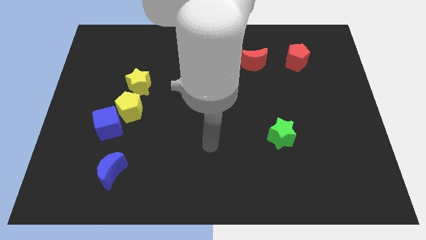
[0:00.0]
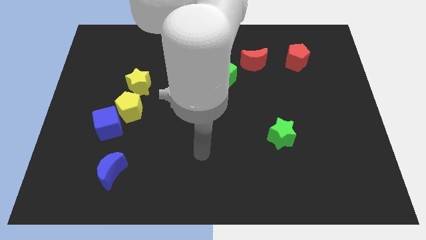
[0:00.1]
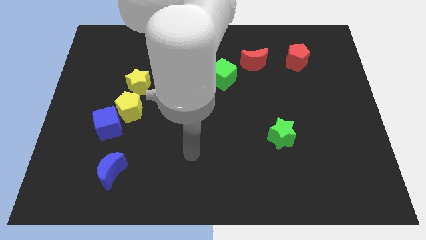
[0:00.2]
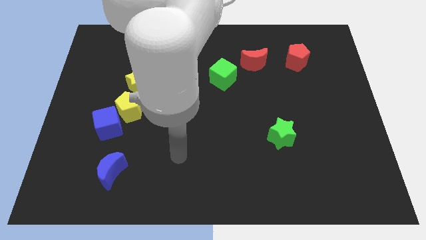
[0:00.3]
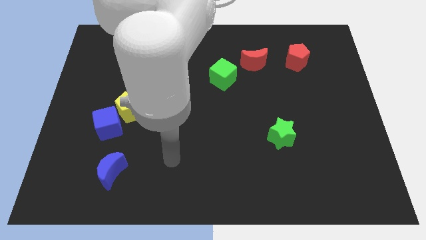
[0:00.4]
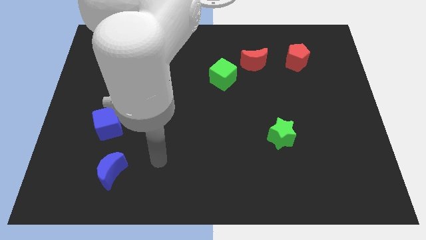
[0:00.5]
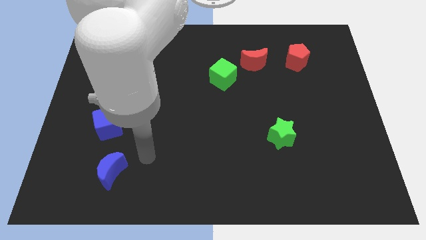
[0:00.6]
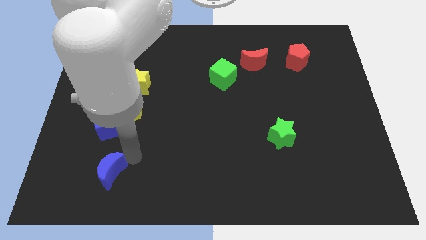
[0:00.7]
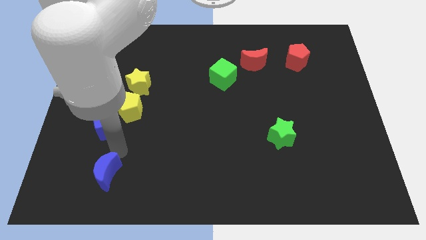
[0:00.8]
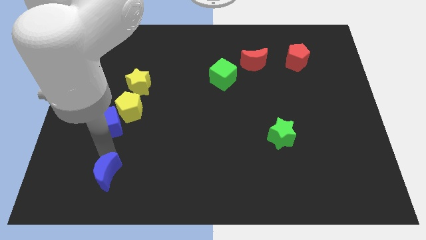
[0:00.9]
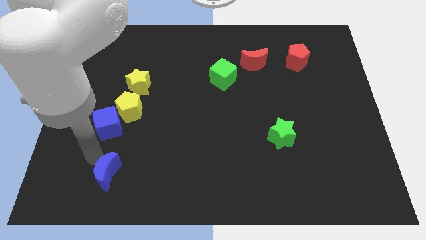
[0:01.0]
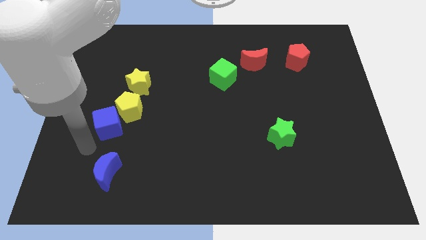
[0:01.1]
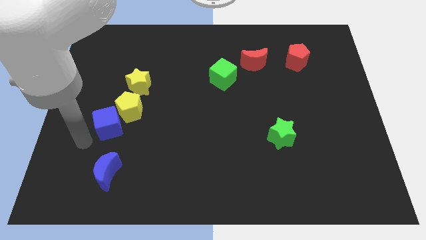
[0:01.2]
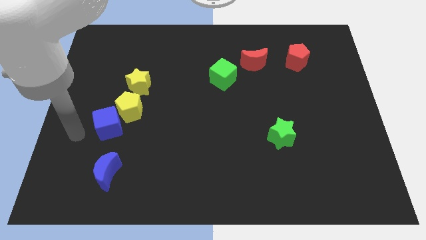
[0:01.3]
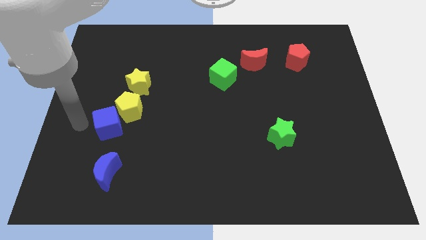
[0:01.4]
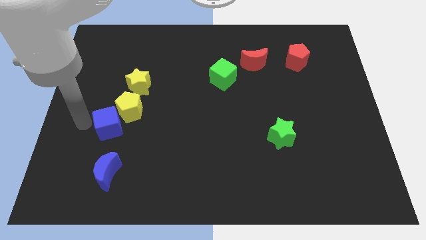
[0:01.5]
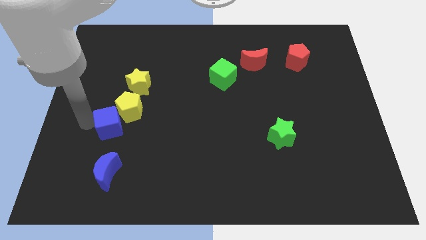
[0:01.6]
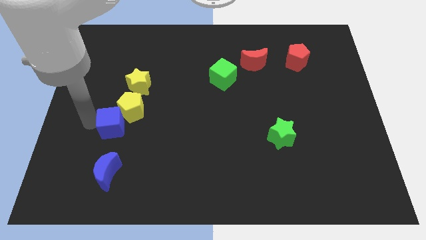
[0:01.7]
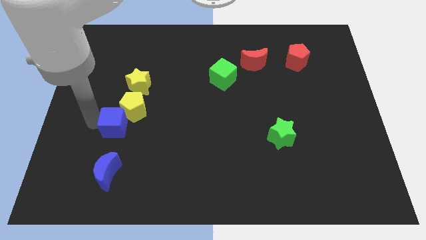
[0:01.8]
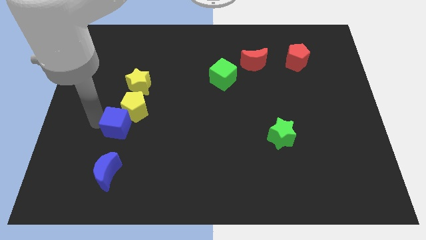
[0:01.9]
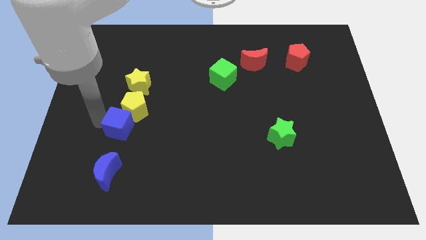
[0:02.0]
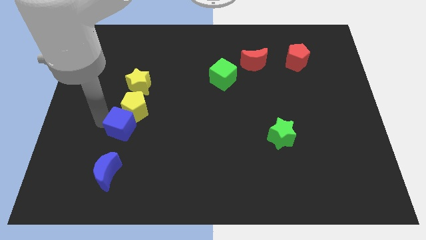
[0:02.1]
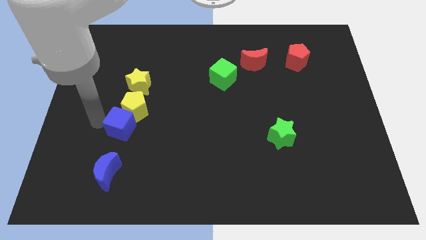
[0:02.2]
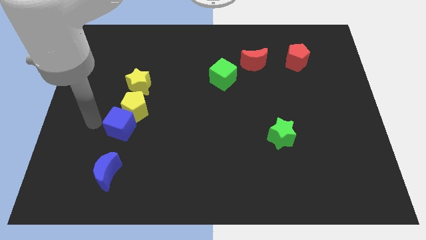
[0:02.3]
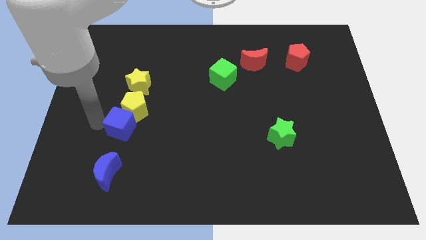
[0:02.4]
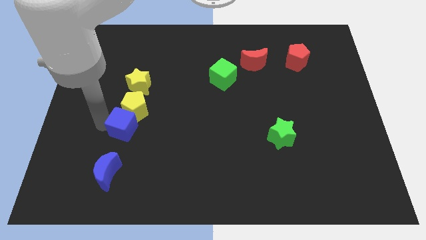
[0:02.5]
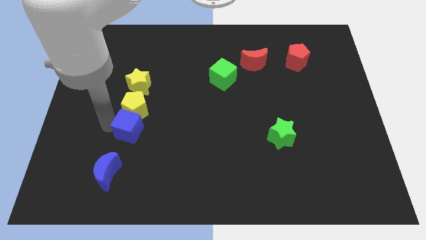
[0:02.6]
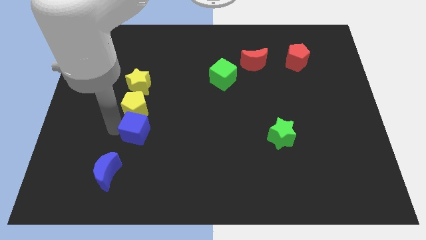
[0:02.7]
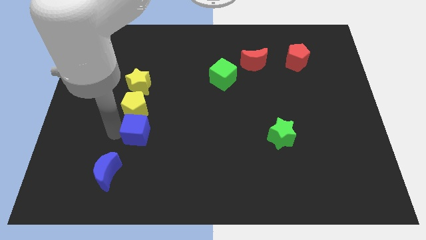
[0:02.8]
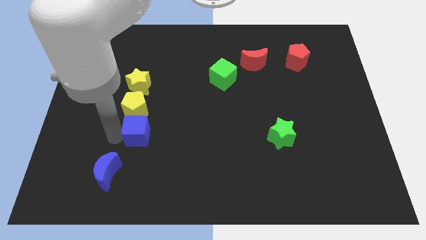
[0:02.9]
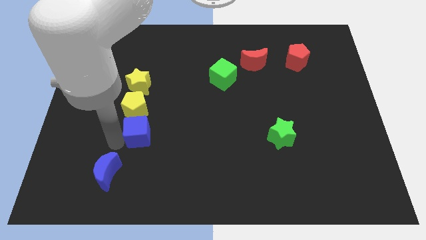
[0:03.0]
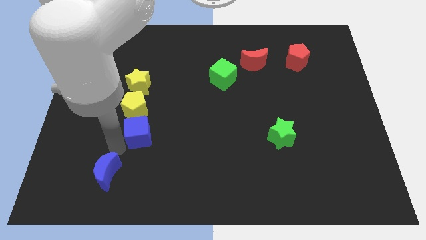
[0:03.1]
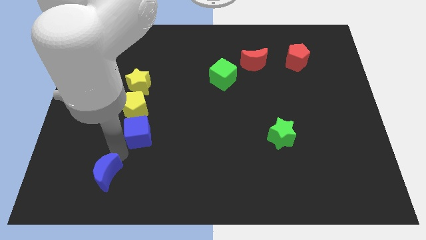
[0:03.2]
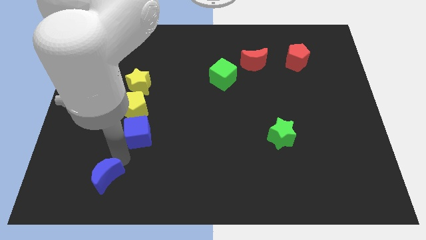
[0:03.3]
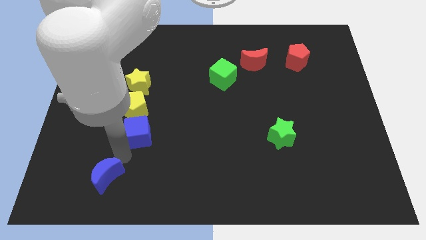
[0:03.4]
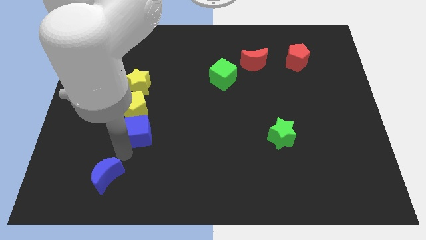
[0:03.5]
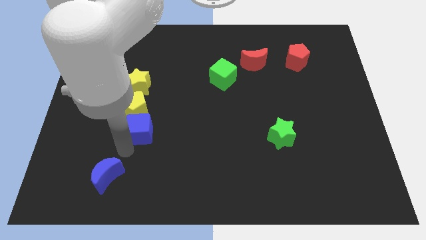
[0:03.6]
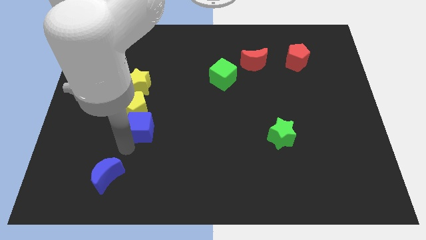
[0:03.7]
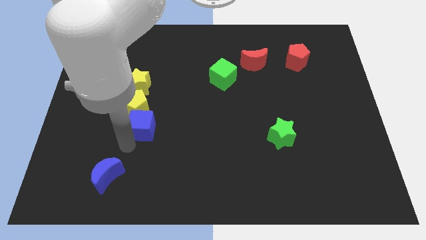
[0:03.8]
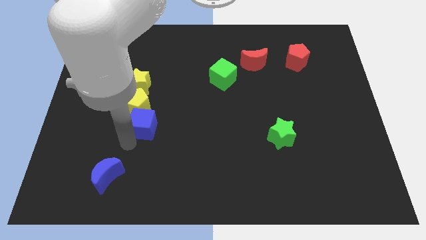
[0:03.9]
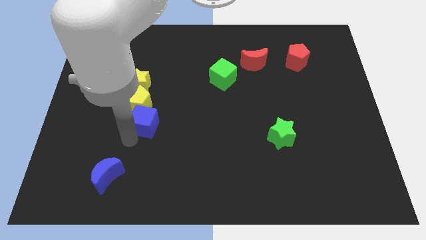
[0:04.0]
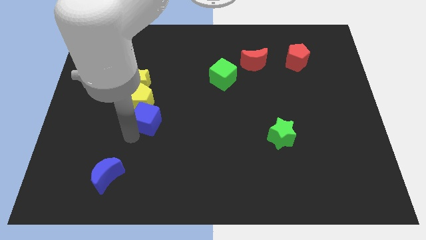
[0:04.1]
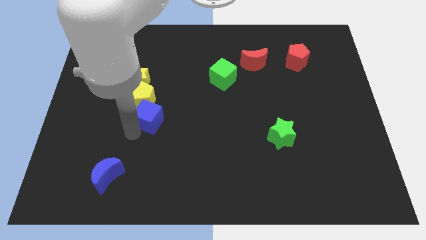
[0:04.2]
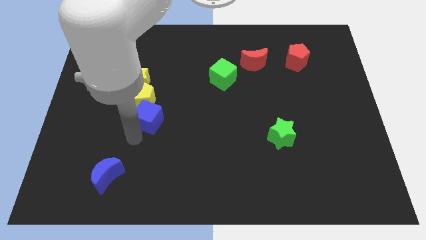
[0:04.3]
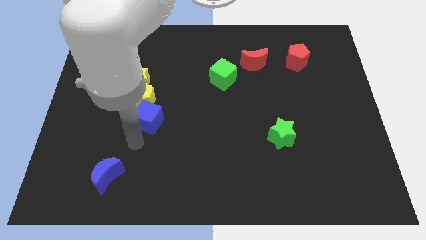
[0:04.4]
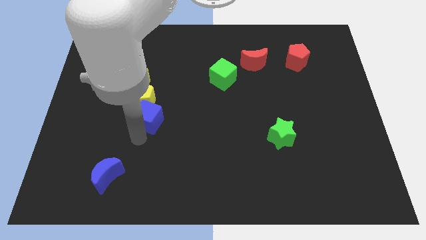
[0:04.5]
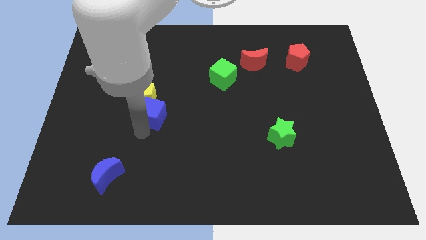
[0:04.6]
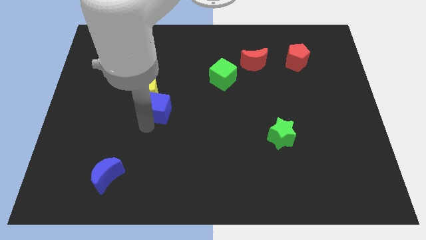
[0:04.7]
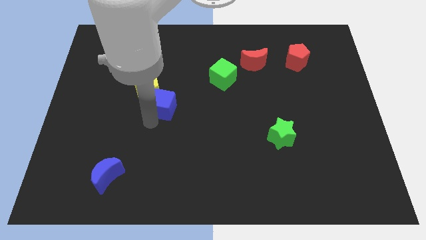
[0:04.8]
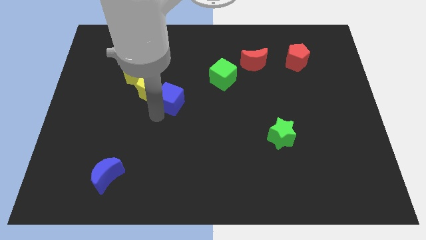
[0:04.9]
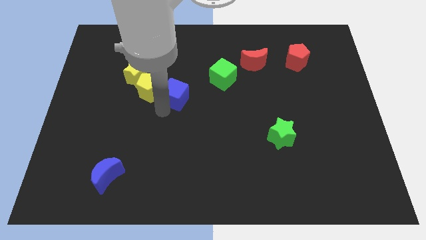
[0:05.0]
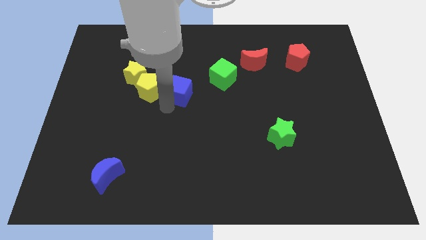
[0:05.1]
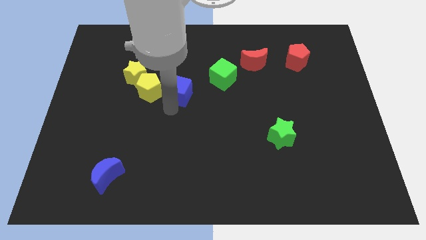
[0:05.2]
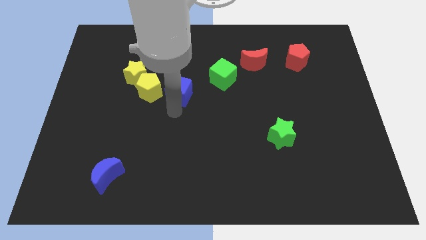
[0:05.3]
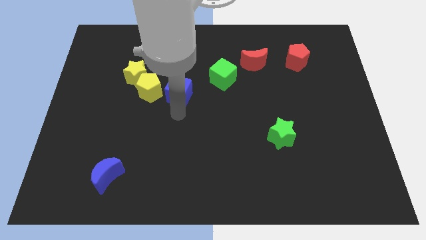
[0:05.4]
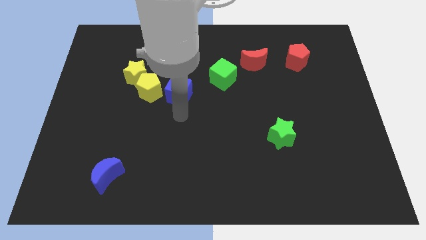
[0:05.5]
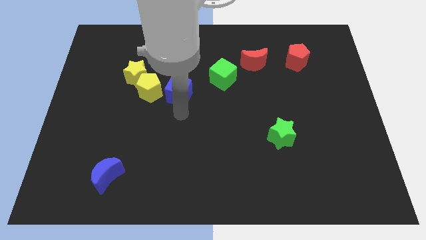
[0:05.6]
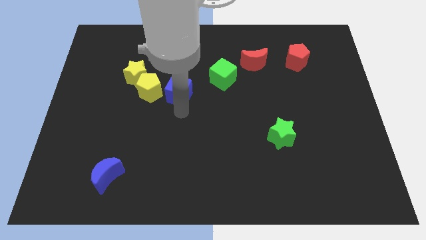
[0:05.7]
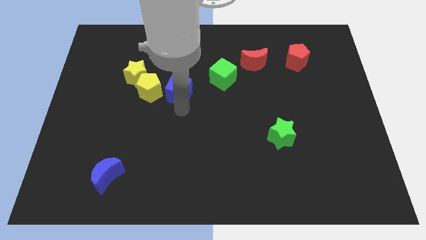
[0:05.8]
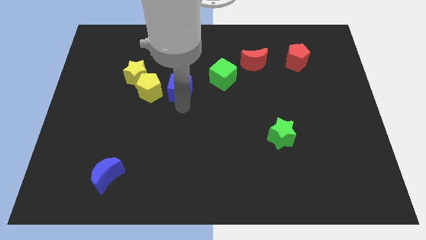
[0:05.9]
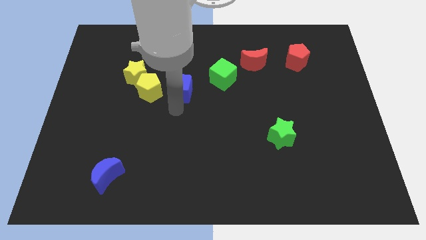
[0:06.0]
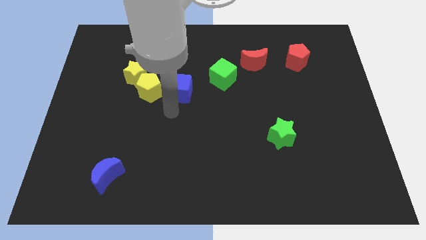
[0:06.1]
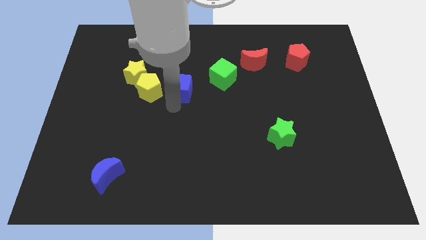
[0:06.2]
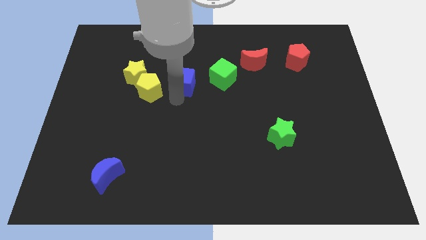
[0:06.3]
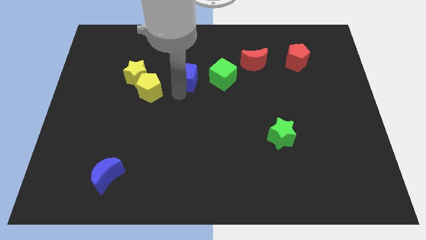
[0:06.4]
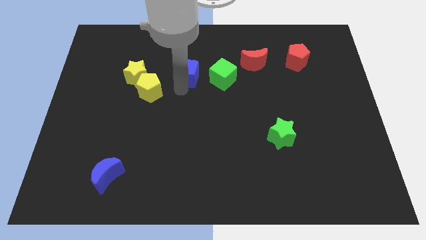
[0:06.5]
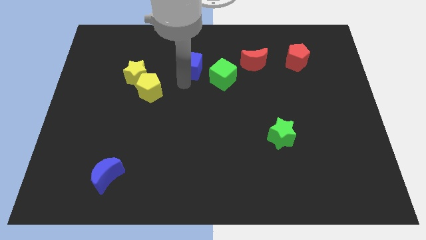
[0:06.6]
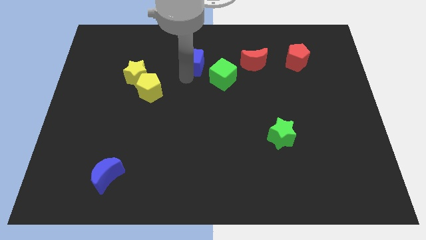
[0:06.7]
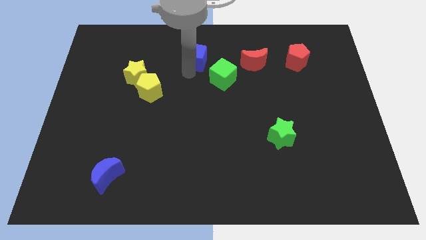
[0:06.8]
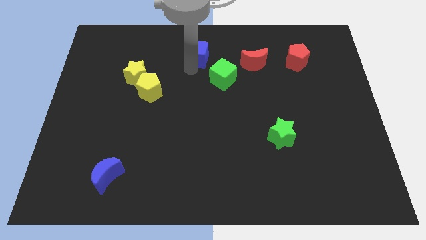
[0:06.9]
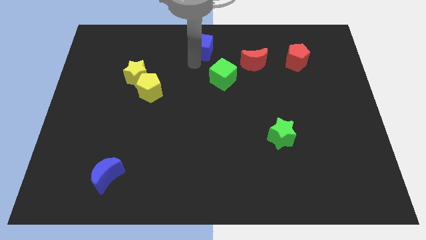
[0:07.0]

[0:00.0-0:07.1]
move the blue cube to the towards your base

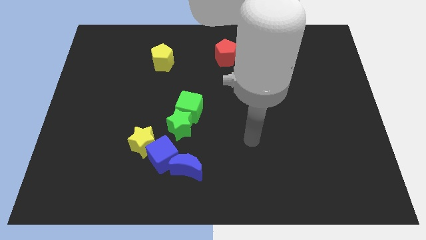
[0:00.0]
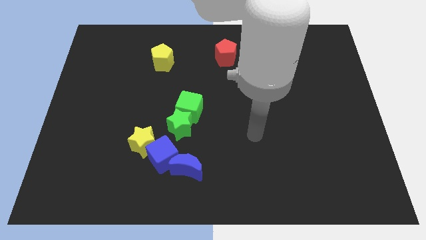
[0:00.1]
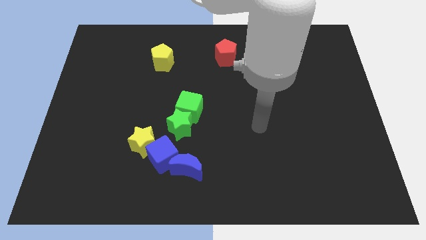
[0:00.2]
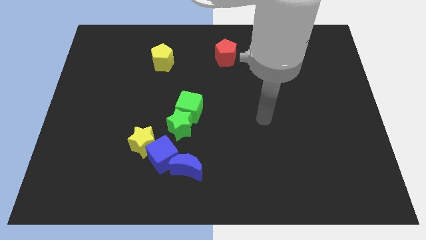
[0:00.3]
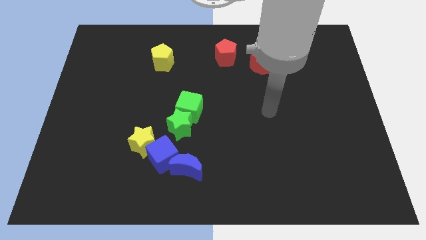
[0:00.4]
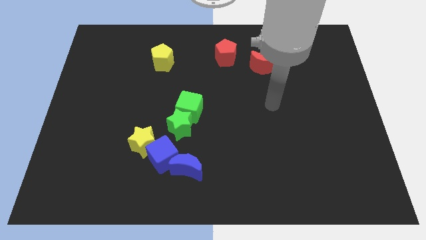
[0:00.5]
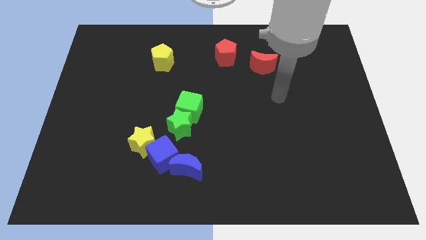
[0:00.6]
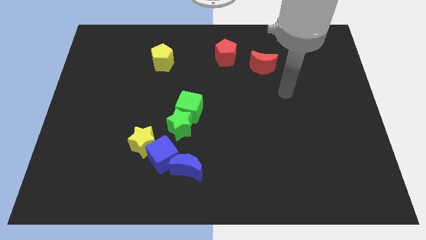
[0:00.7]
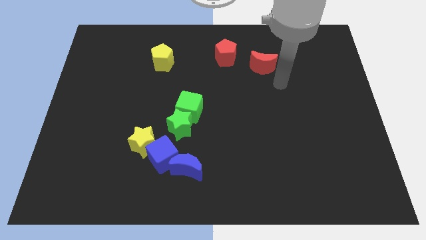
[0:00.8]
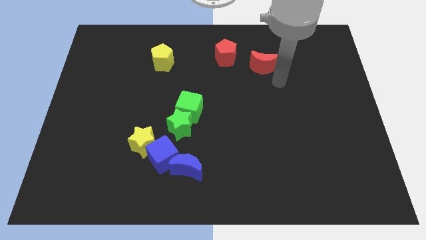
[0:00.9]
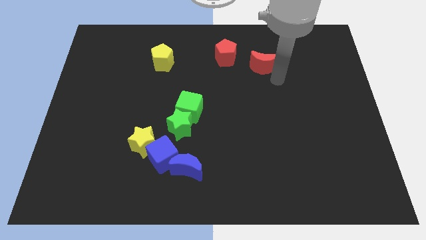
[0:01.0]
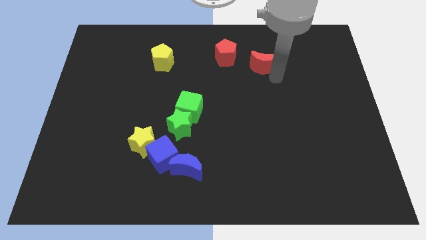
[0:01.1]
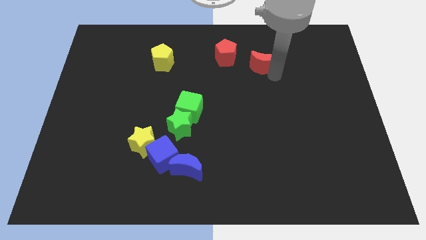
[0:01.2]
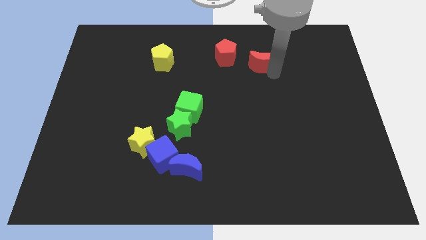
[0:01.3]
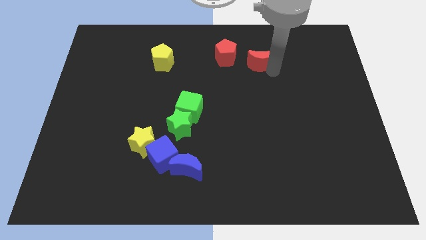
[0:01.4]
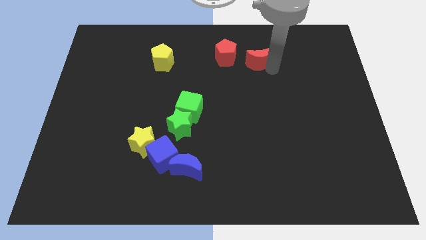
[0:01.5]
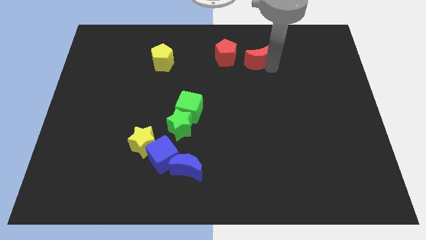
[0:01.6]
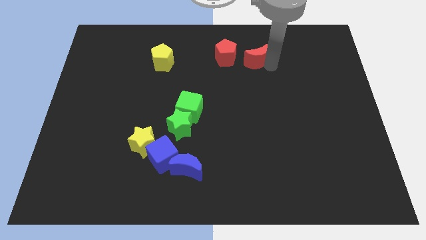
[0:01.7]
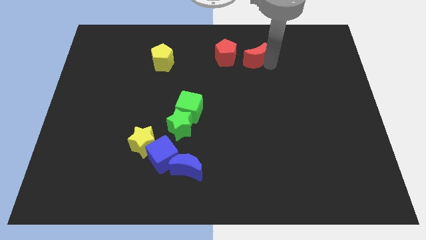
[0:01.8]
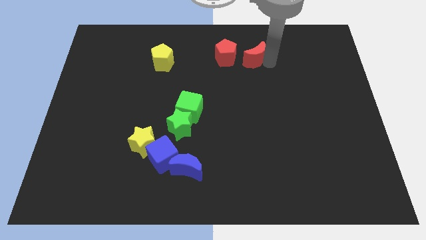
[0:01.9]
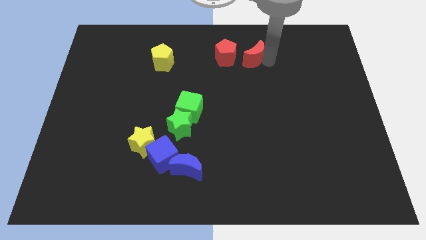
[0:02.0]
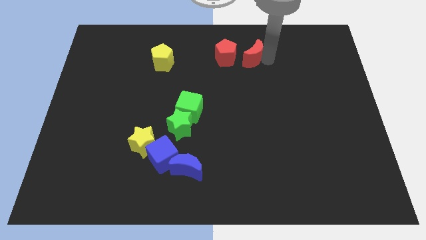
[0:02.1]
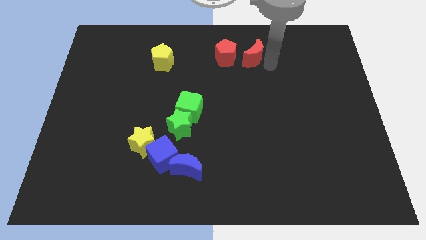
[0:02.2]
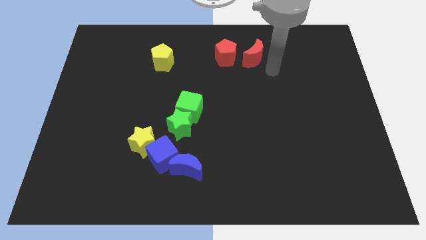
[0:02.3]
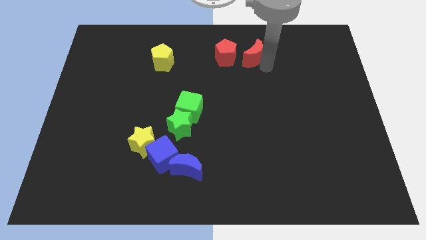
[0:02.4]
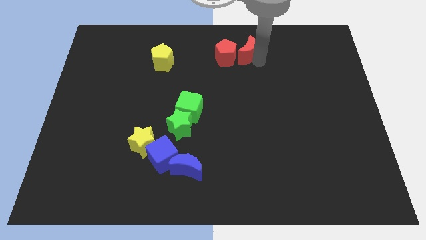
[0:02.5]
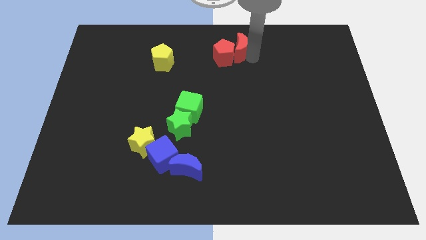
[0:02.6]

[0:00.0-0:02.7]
move the red moon to the top
